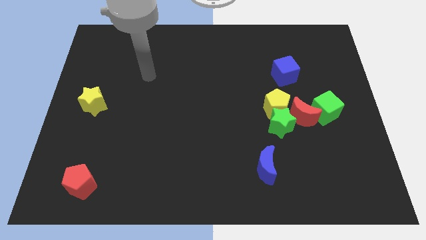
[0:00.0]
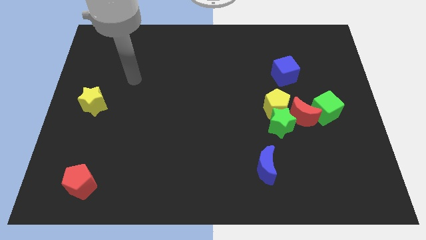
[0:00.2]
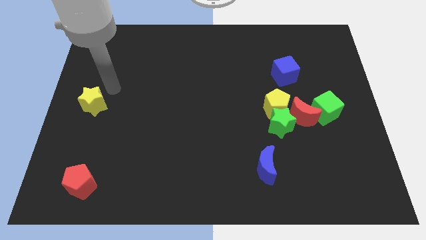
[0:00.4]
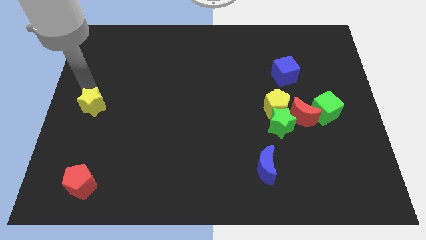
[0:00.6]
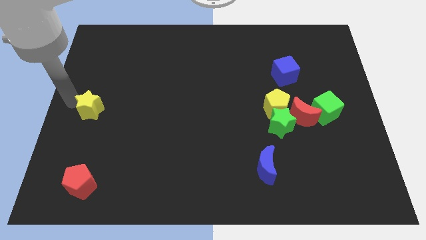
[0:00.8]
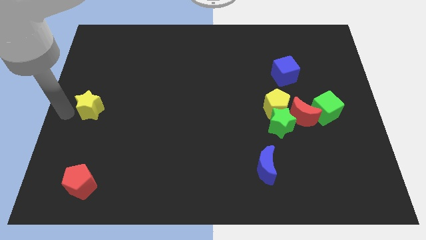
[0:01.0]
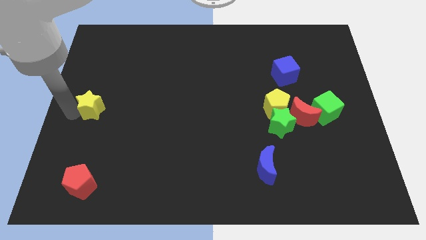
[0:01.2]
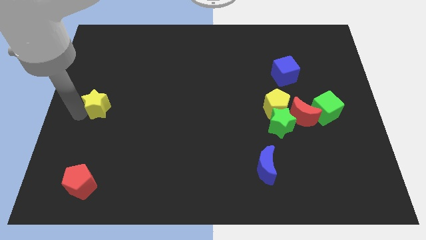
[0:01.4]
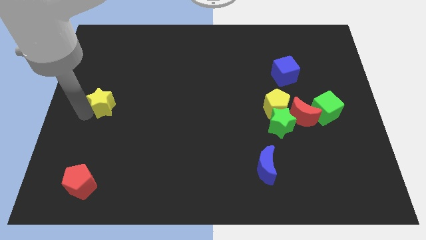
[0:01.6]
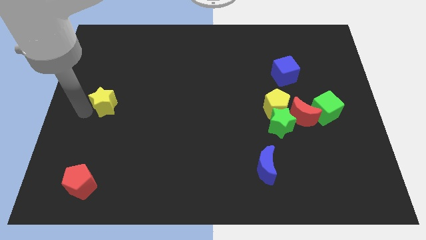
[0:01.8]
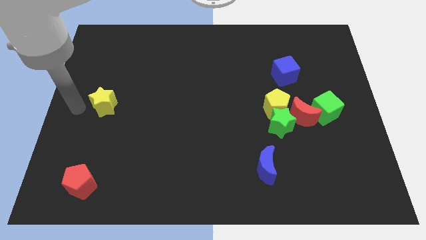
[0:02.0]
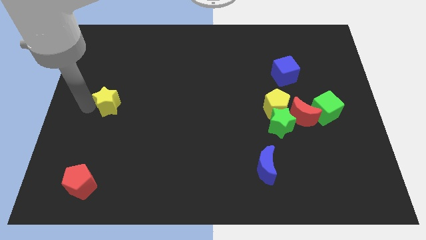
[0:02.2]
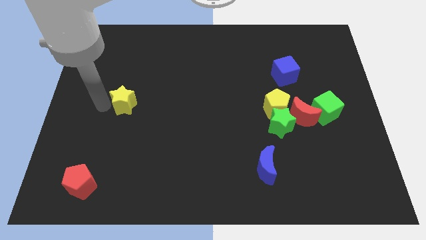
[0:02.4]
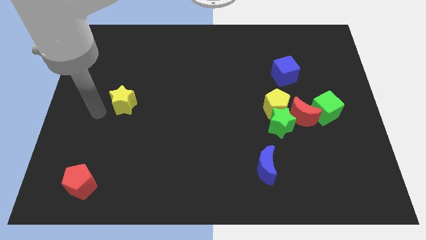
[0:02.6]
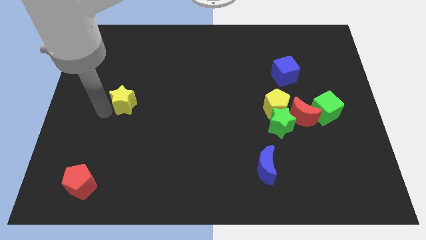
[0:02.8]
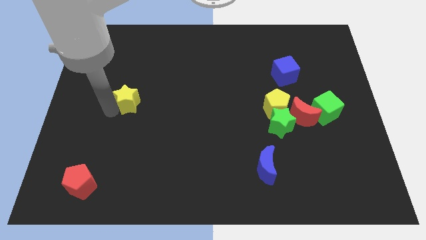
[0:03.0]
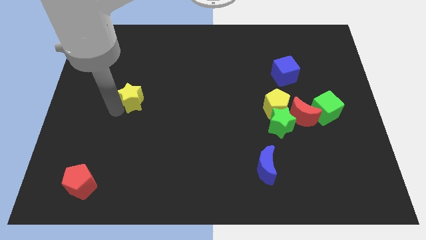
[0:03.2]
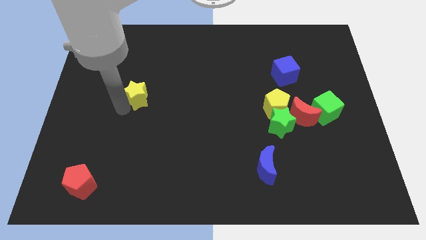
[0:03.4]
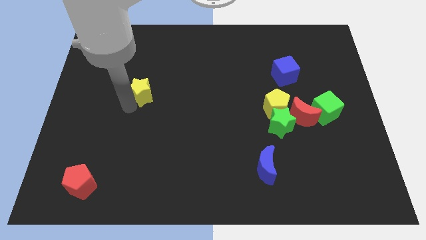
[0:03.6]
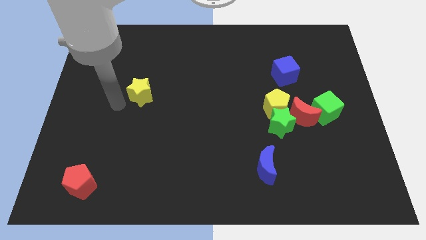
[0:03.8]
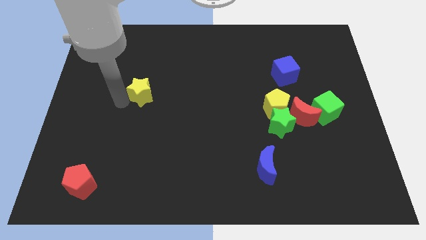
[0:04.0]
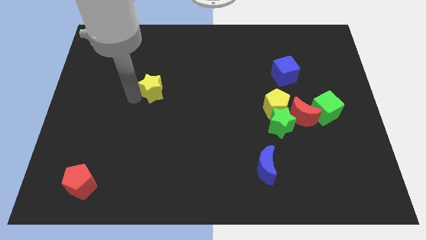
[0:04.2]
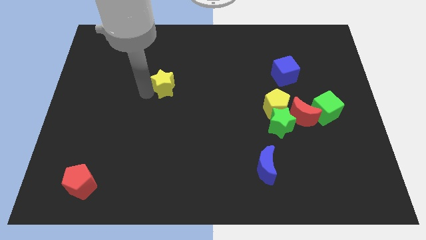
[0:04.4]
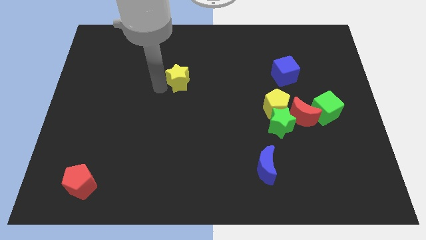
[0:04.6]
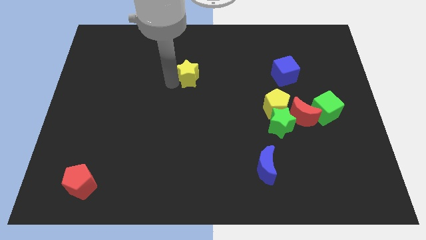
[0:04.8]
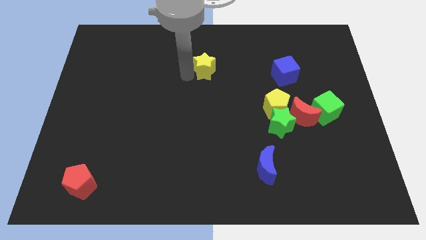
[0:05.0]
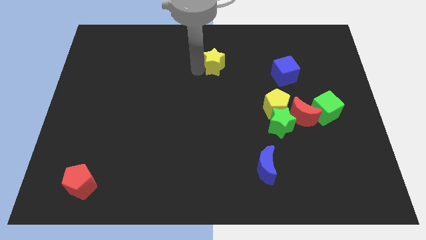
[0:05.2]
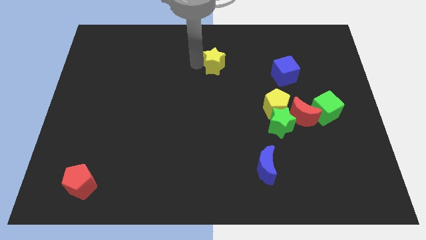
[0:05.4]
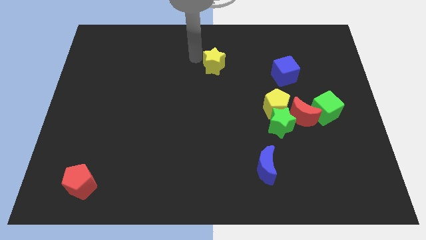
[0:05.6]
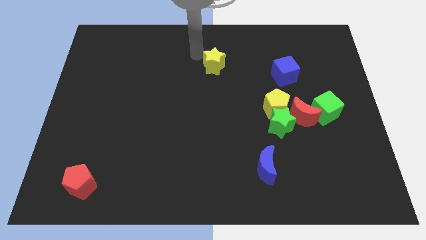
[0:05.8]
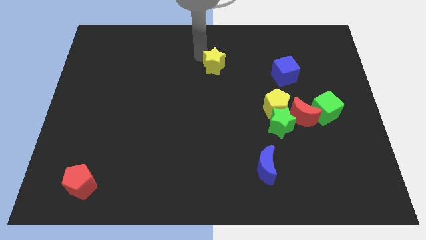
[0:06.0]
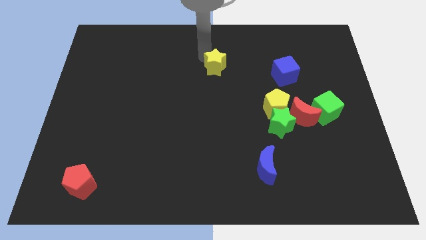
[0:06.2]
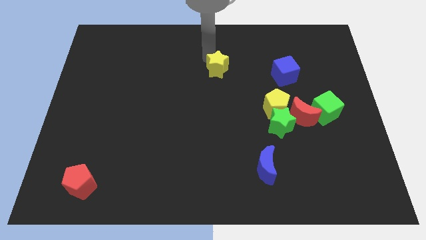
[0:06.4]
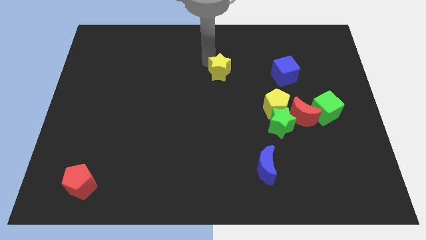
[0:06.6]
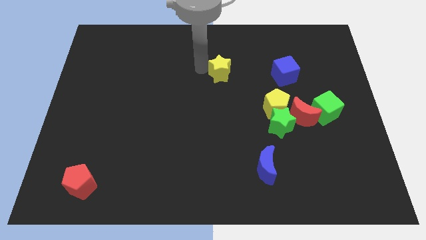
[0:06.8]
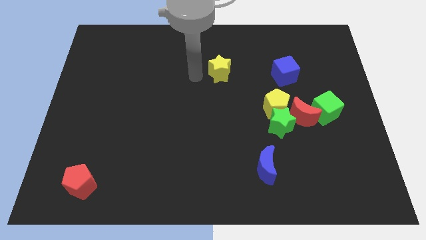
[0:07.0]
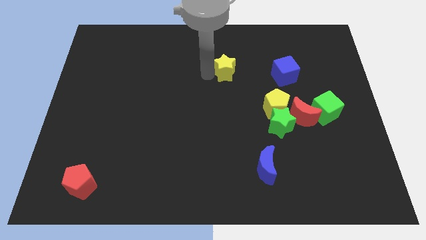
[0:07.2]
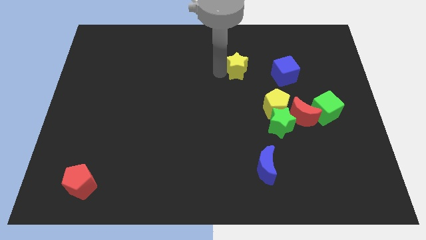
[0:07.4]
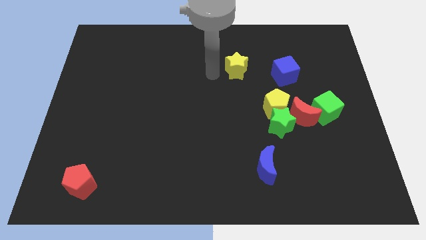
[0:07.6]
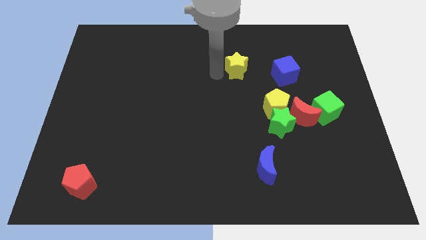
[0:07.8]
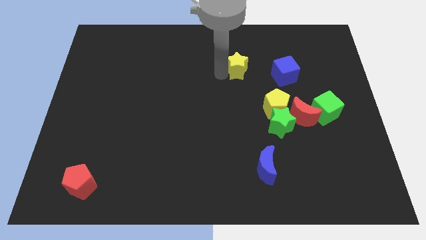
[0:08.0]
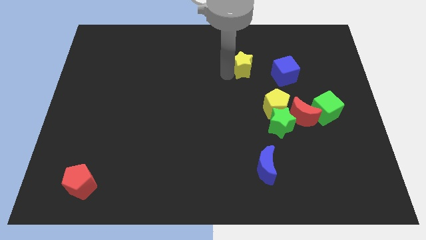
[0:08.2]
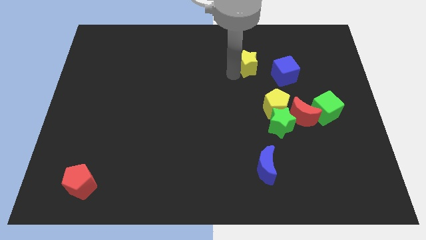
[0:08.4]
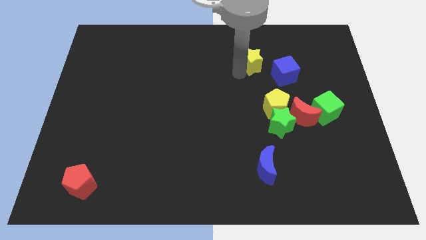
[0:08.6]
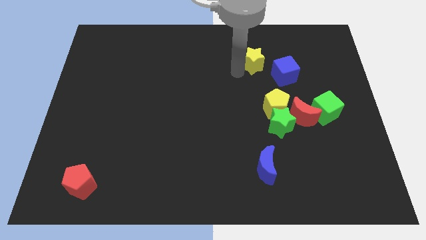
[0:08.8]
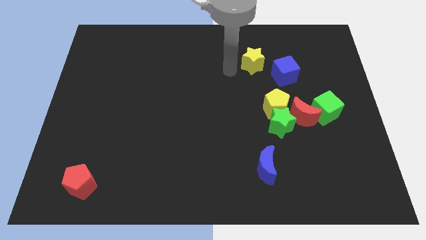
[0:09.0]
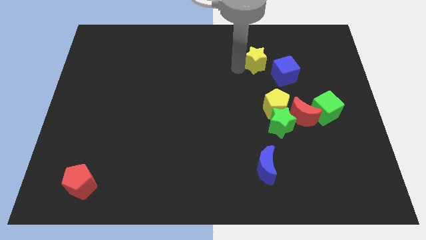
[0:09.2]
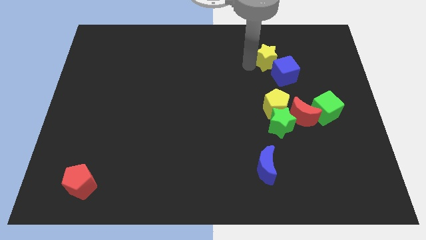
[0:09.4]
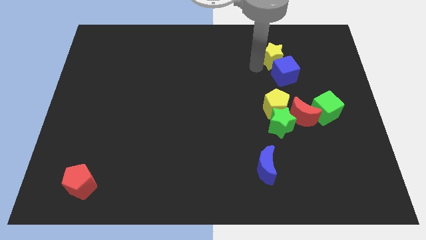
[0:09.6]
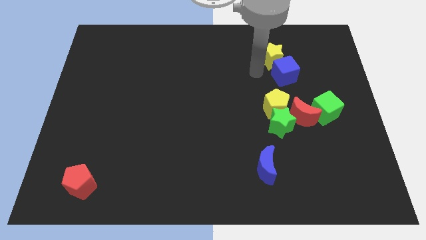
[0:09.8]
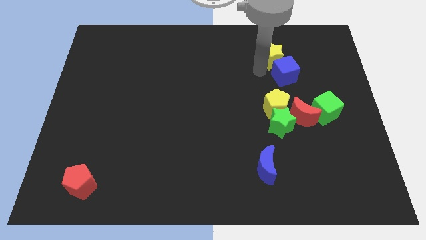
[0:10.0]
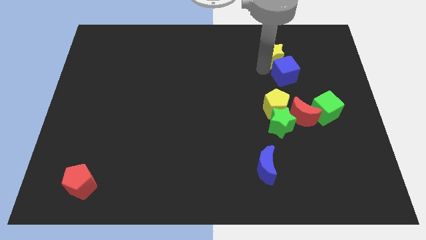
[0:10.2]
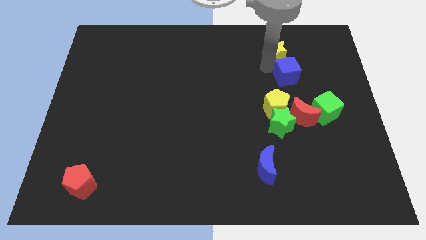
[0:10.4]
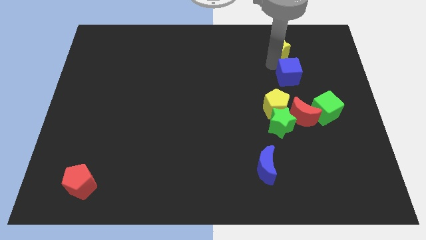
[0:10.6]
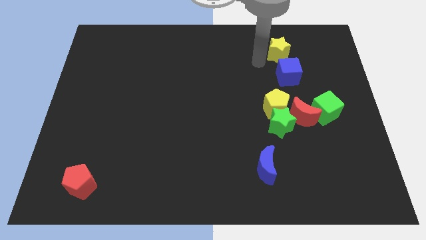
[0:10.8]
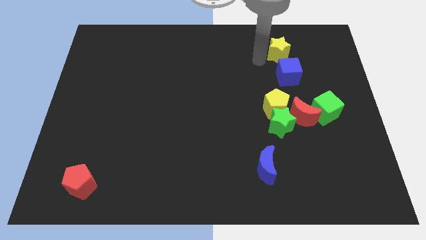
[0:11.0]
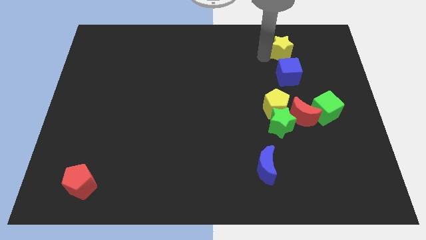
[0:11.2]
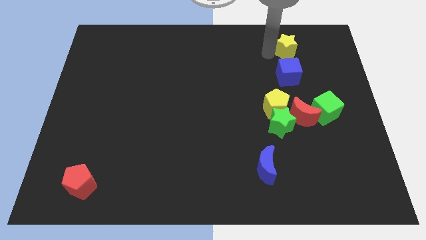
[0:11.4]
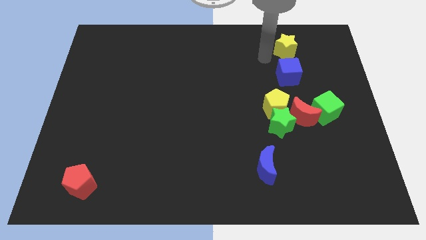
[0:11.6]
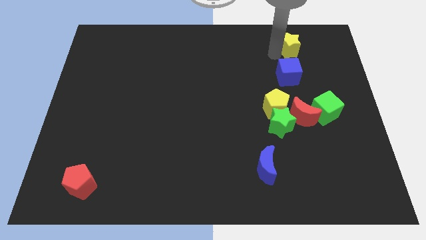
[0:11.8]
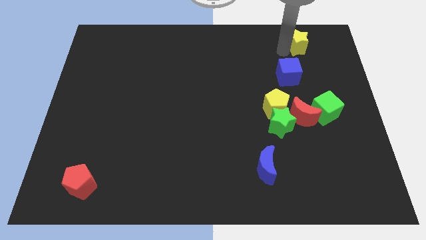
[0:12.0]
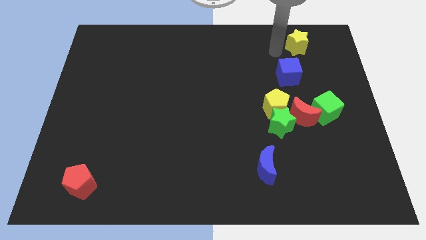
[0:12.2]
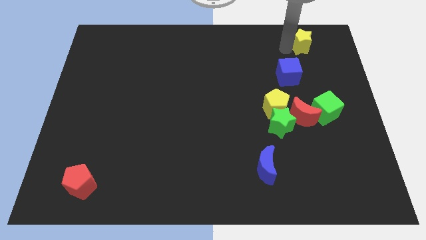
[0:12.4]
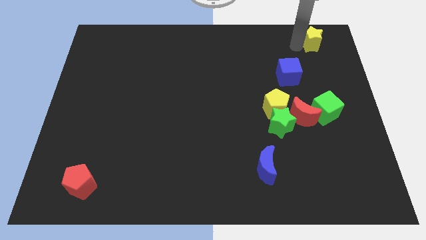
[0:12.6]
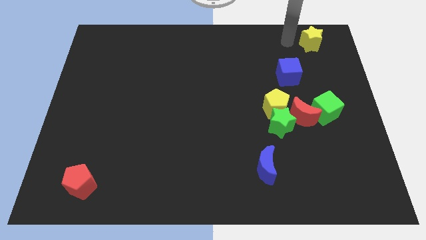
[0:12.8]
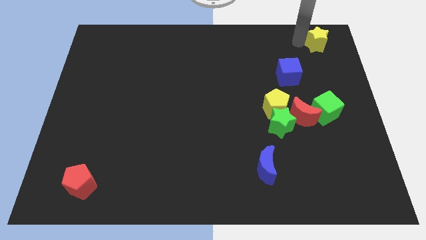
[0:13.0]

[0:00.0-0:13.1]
move the yellow star to the top right

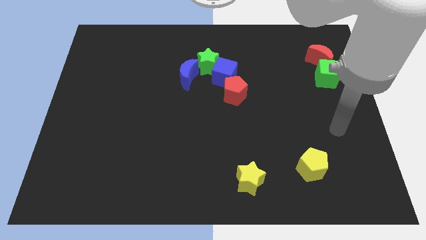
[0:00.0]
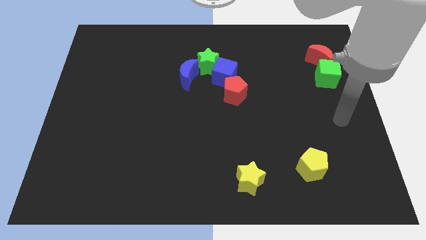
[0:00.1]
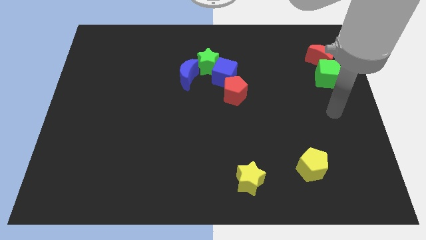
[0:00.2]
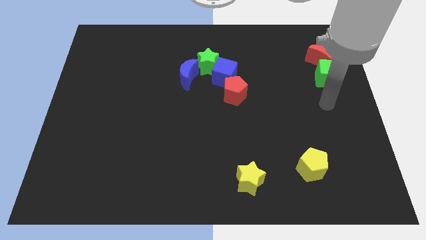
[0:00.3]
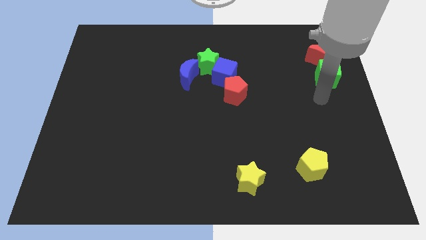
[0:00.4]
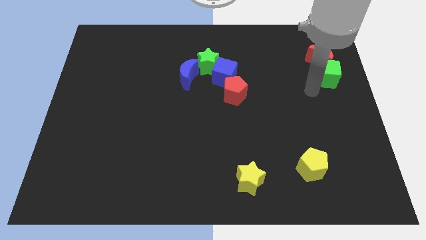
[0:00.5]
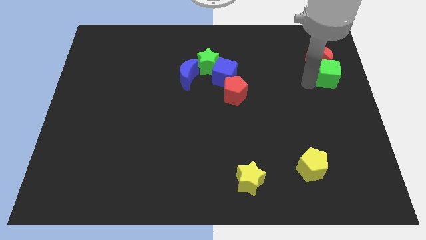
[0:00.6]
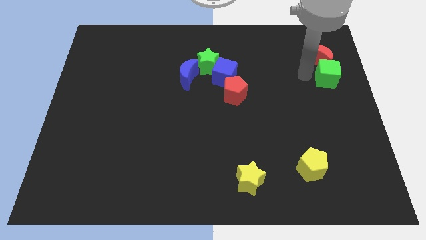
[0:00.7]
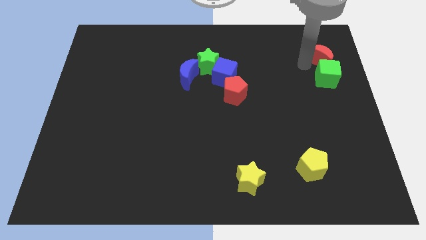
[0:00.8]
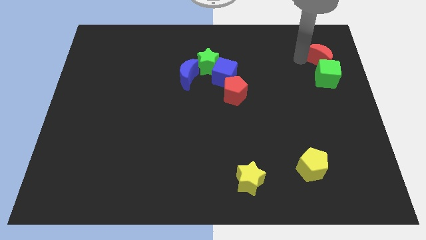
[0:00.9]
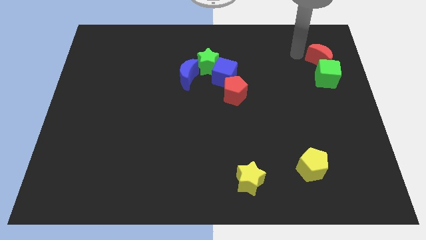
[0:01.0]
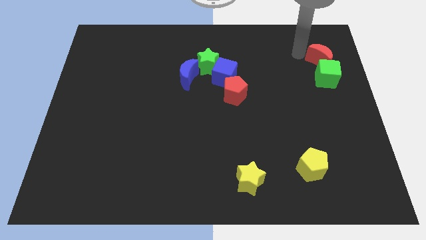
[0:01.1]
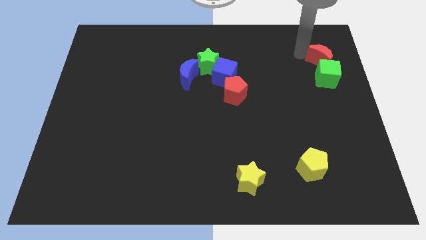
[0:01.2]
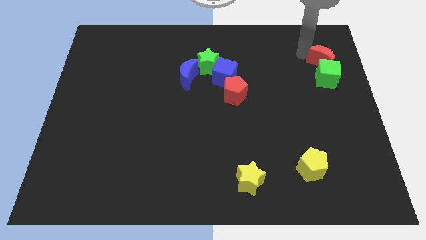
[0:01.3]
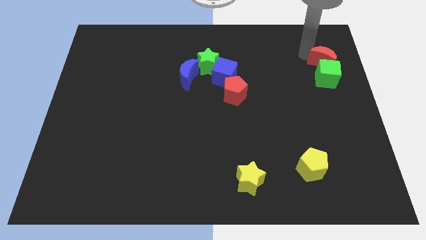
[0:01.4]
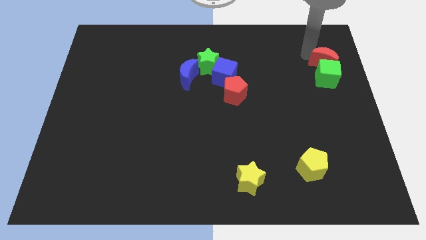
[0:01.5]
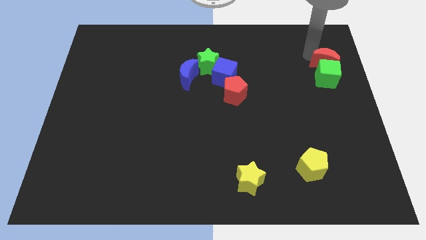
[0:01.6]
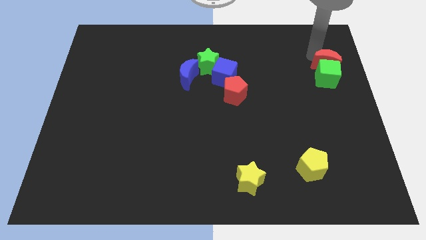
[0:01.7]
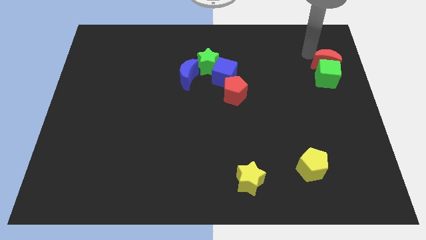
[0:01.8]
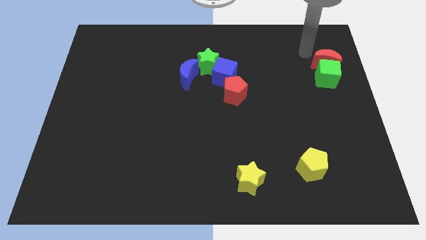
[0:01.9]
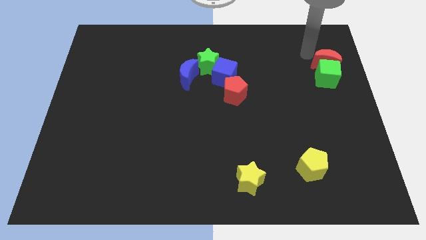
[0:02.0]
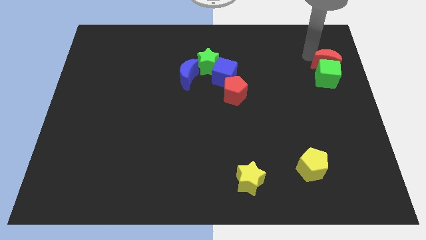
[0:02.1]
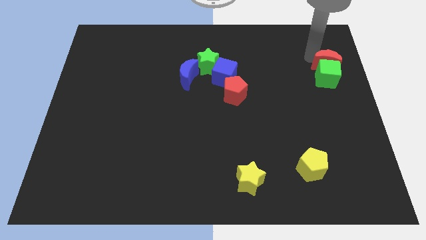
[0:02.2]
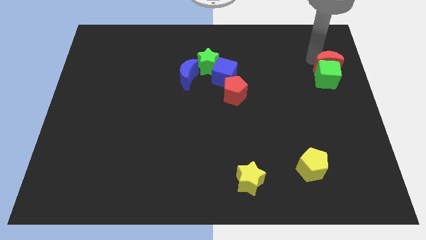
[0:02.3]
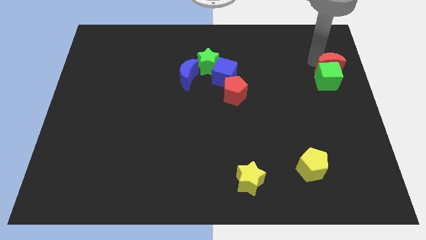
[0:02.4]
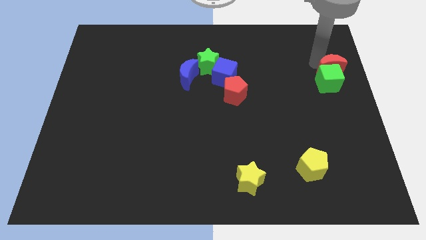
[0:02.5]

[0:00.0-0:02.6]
push the red moon to the right side of the board
